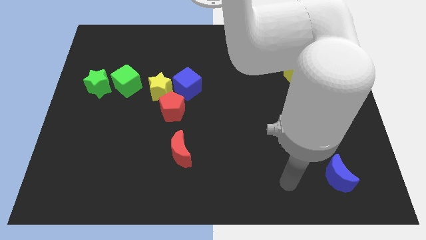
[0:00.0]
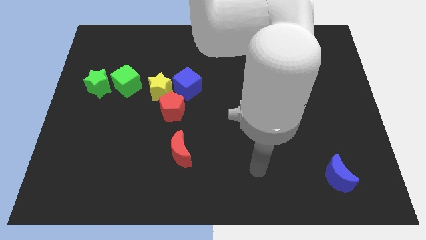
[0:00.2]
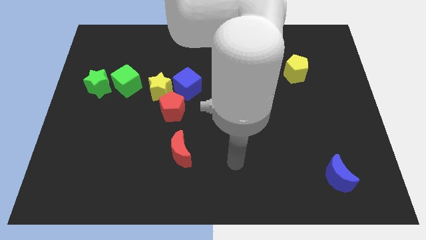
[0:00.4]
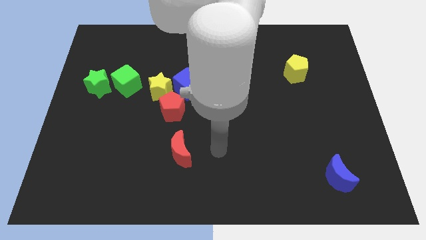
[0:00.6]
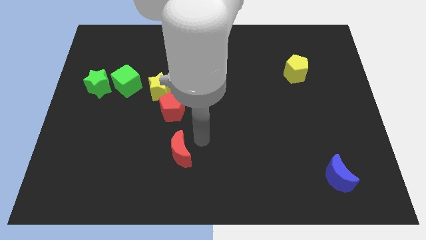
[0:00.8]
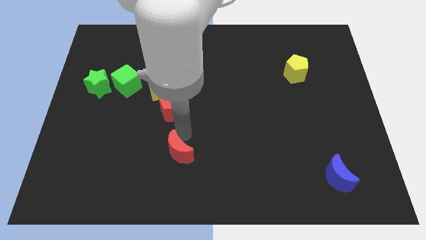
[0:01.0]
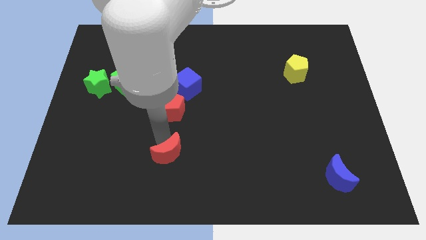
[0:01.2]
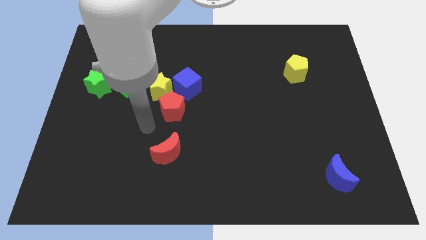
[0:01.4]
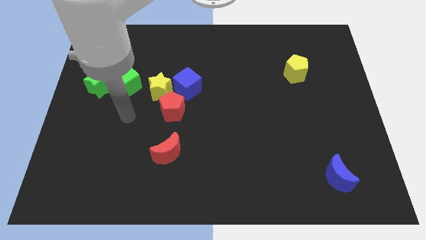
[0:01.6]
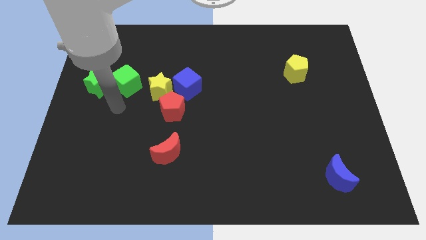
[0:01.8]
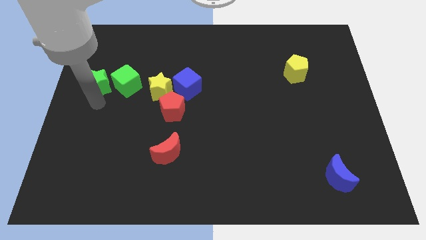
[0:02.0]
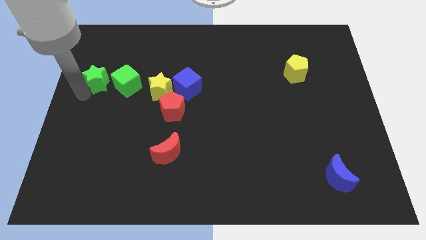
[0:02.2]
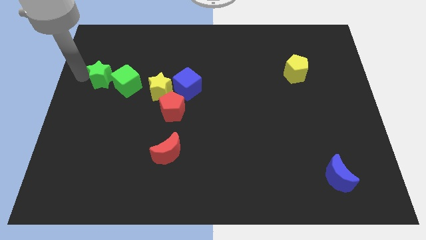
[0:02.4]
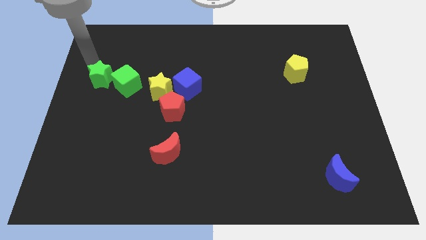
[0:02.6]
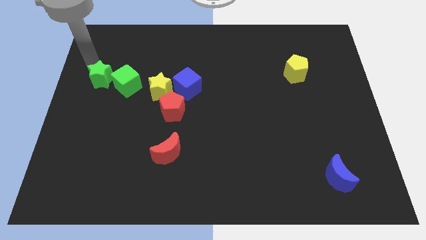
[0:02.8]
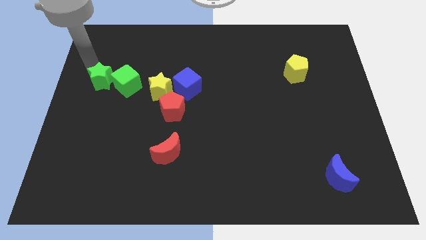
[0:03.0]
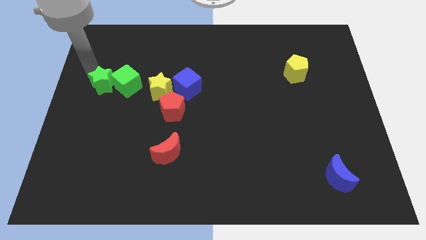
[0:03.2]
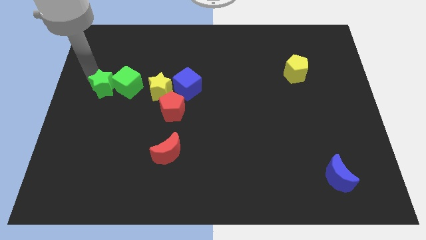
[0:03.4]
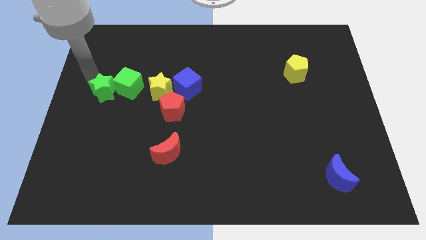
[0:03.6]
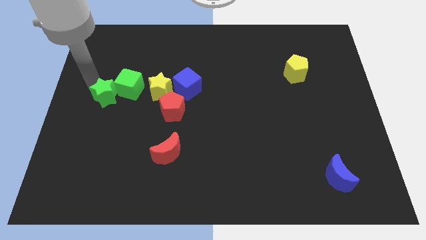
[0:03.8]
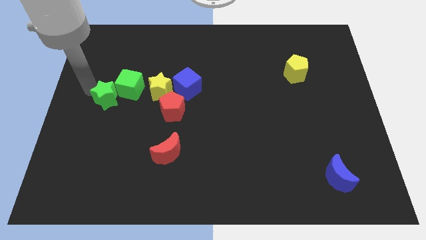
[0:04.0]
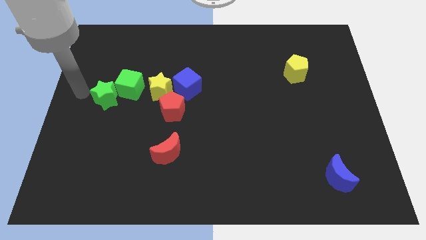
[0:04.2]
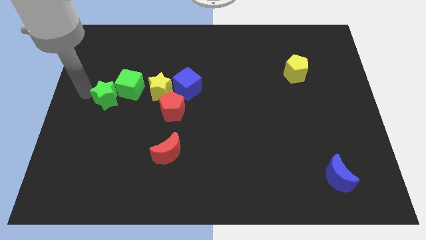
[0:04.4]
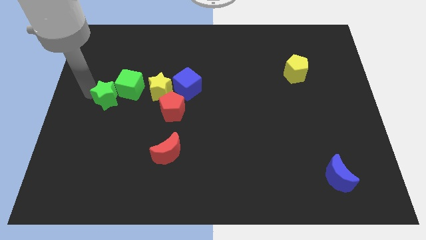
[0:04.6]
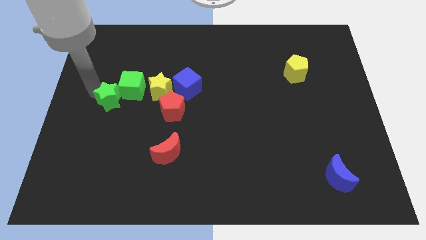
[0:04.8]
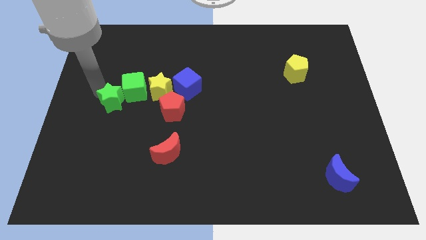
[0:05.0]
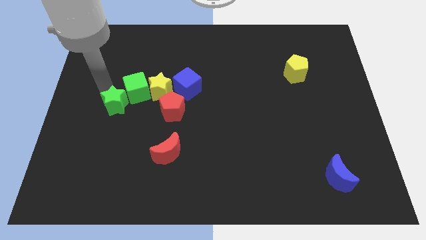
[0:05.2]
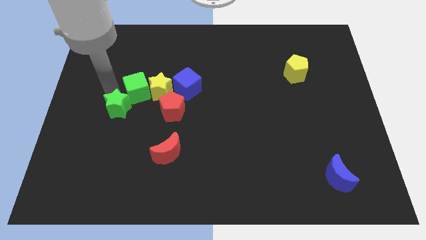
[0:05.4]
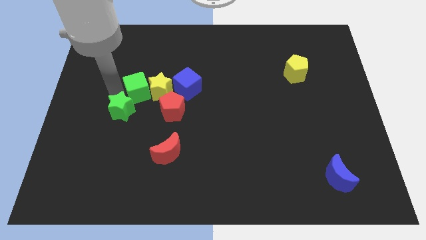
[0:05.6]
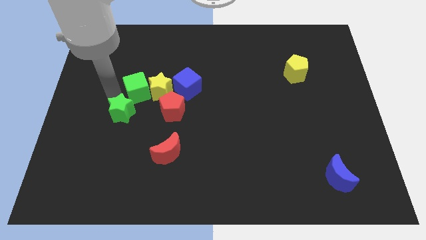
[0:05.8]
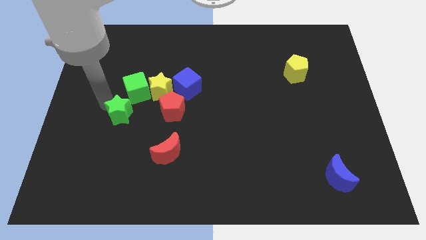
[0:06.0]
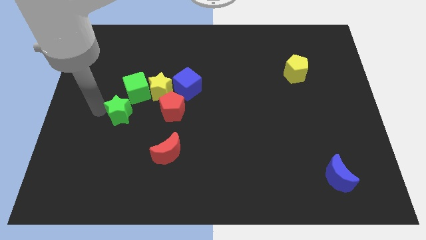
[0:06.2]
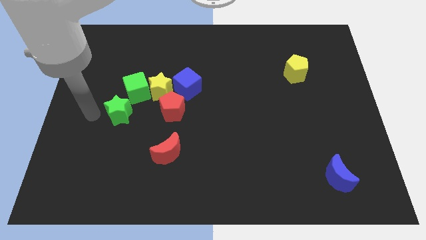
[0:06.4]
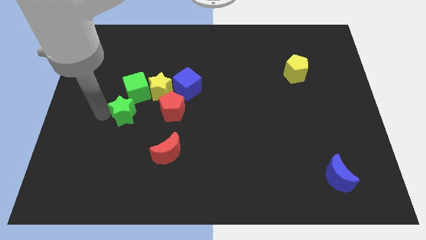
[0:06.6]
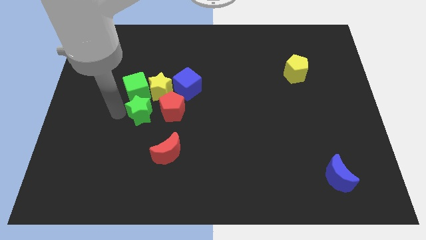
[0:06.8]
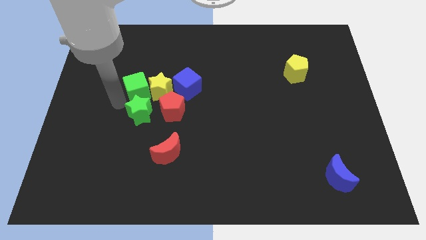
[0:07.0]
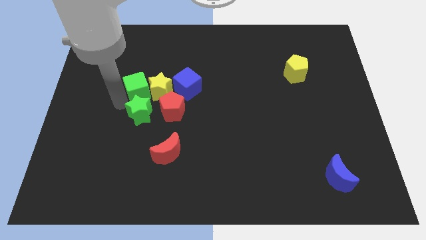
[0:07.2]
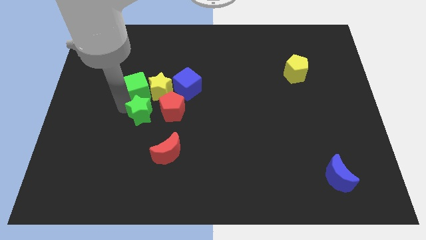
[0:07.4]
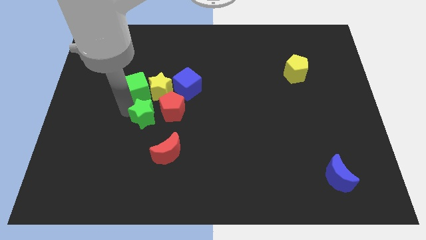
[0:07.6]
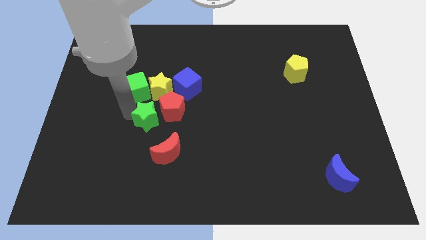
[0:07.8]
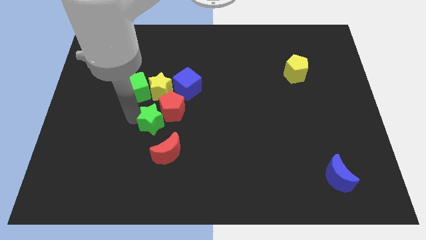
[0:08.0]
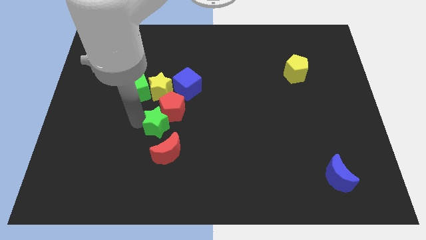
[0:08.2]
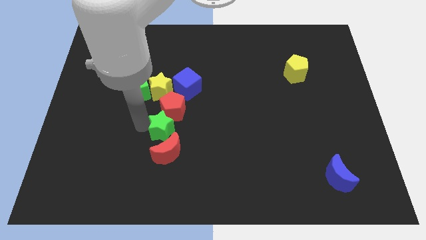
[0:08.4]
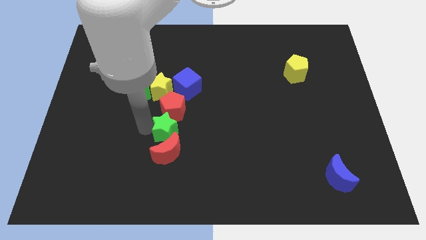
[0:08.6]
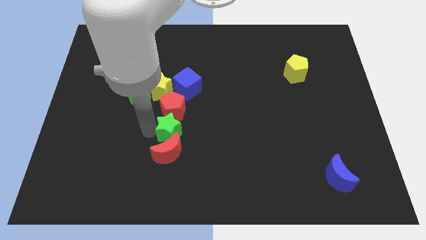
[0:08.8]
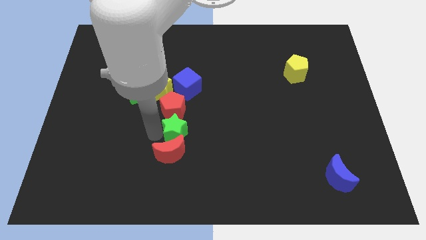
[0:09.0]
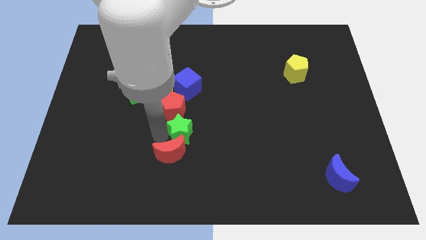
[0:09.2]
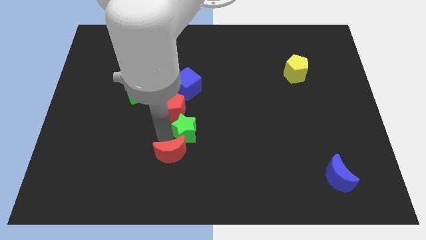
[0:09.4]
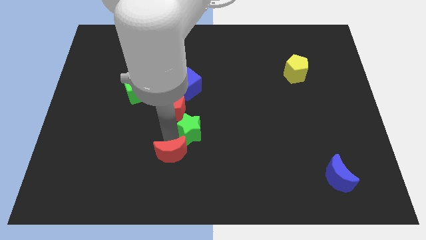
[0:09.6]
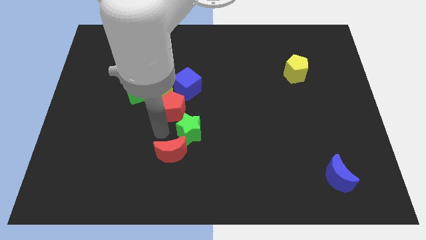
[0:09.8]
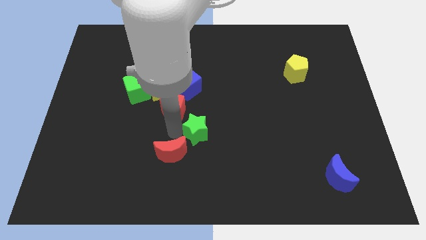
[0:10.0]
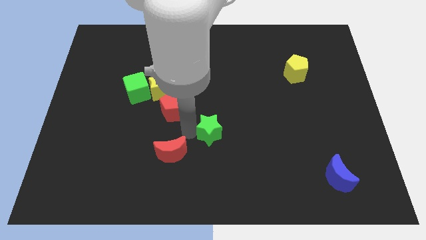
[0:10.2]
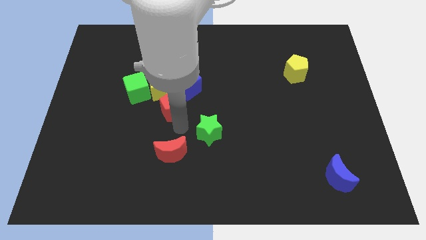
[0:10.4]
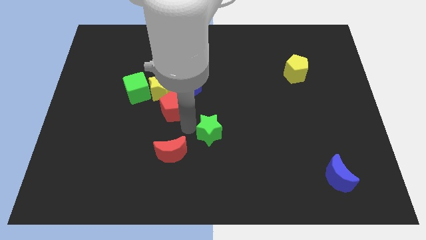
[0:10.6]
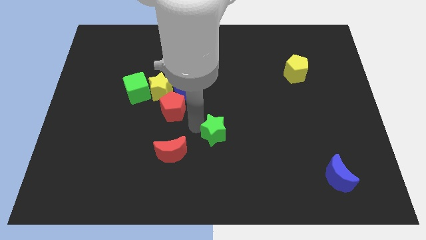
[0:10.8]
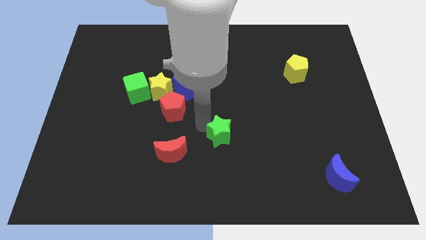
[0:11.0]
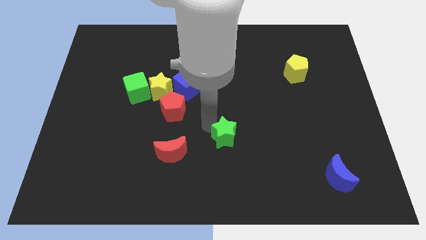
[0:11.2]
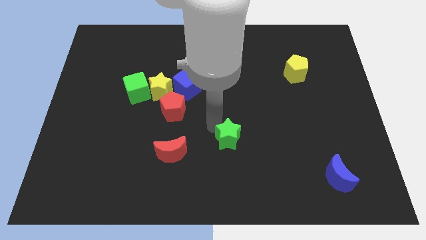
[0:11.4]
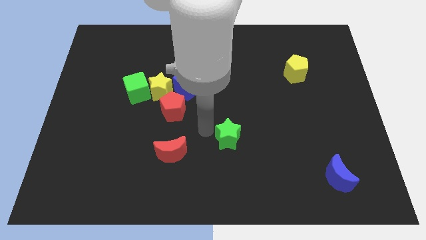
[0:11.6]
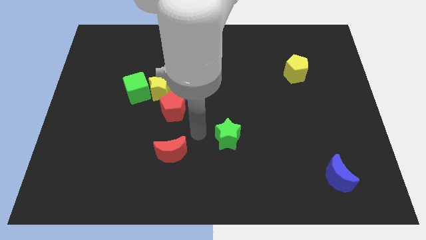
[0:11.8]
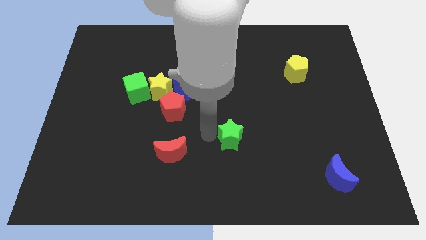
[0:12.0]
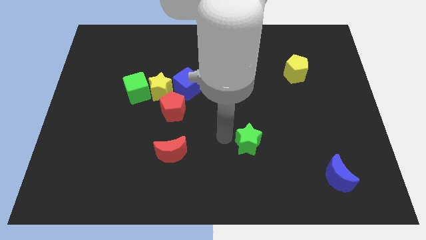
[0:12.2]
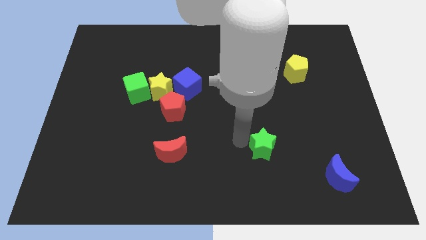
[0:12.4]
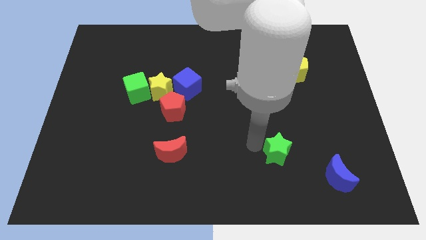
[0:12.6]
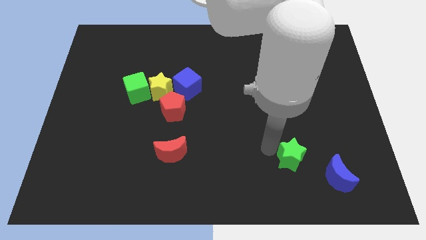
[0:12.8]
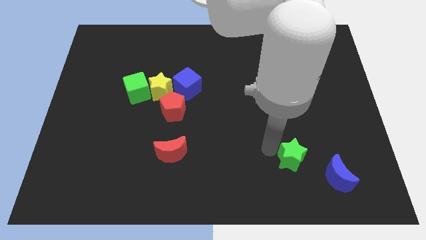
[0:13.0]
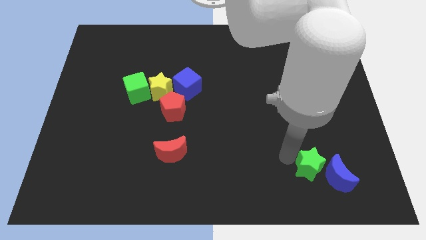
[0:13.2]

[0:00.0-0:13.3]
slide the green star to the blue moon

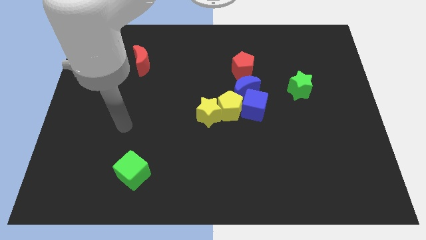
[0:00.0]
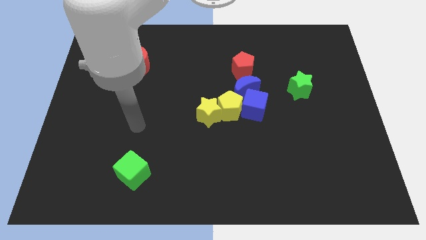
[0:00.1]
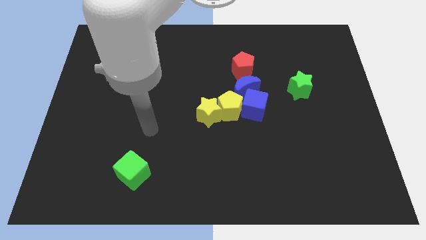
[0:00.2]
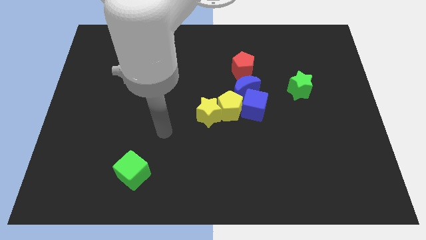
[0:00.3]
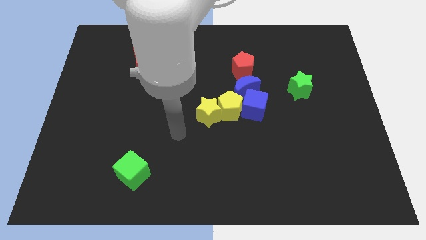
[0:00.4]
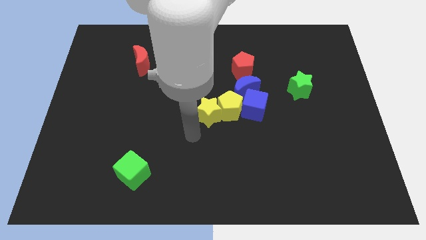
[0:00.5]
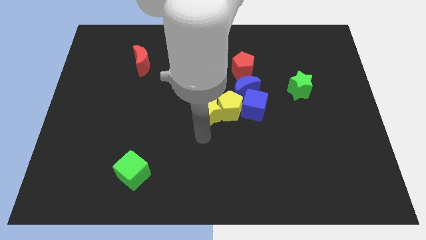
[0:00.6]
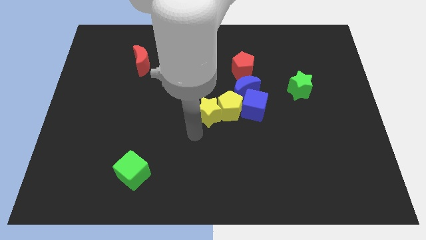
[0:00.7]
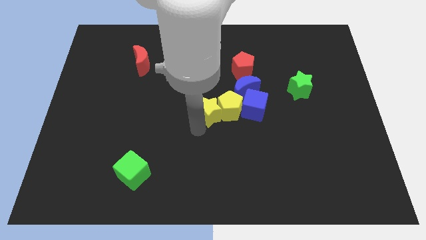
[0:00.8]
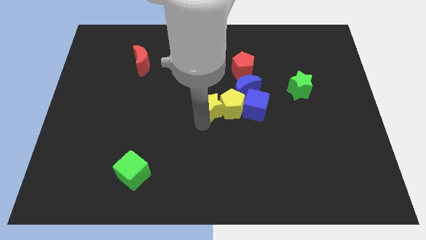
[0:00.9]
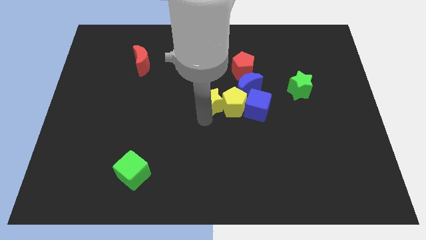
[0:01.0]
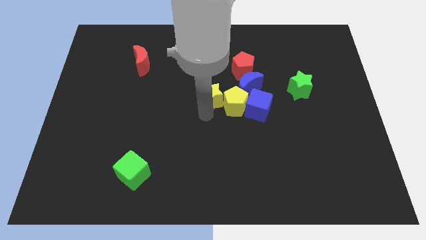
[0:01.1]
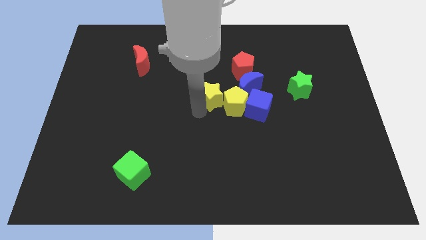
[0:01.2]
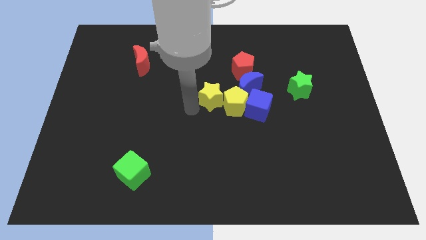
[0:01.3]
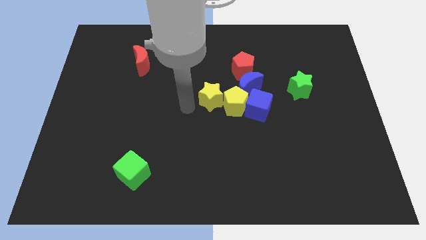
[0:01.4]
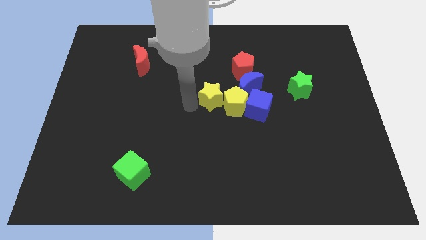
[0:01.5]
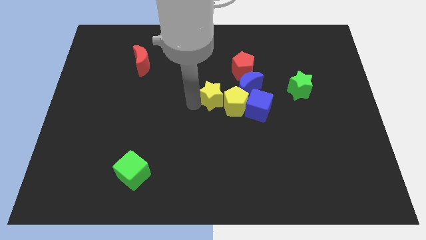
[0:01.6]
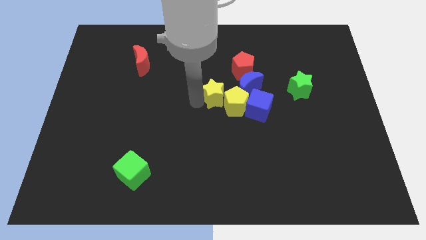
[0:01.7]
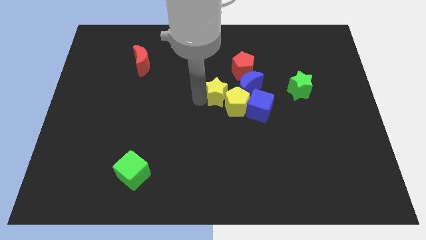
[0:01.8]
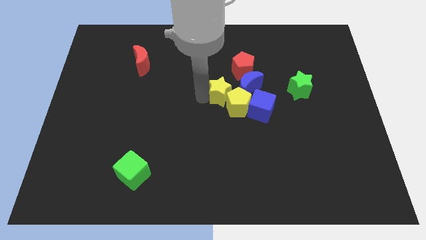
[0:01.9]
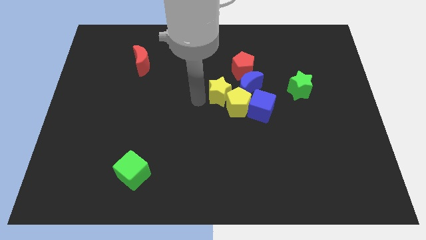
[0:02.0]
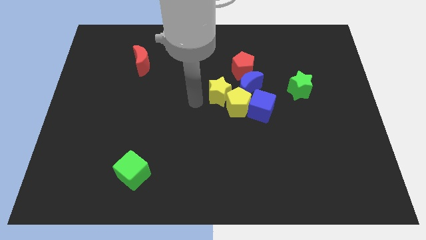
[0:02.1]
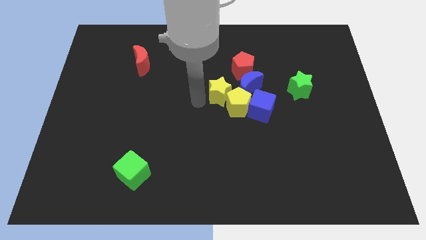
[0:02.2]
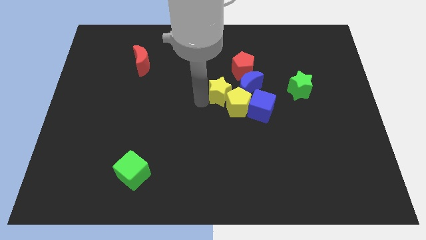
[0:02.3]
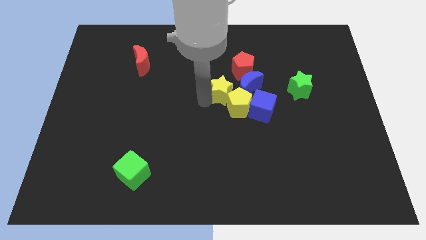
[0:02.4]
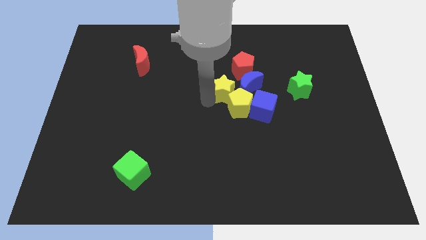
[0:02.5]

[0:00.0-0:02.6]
push the yellow star next to the blue moon
